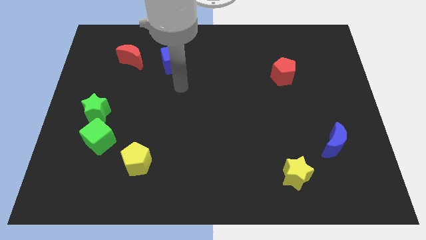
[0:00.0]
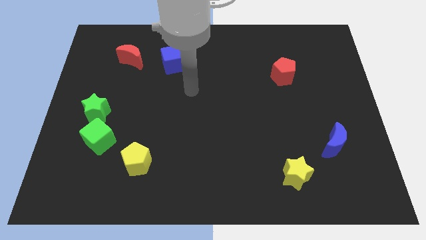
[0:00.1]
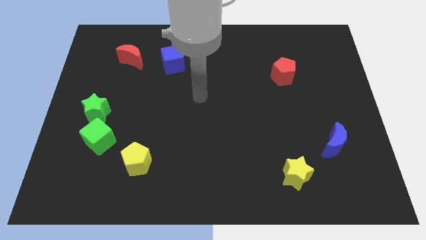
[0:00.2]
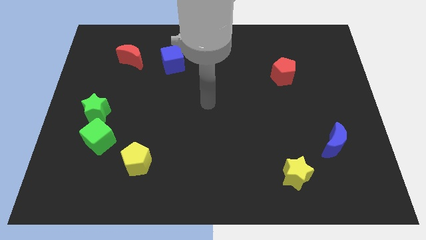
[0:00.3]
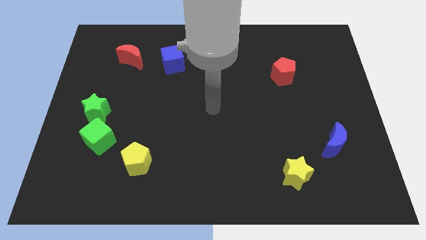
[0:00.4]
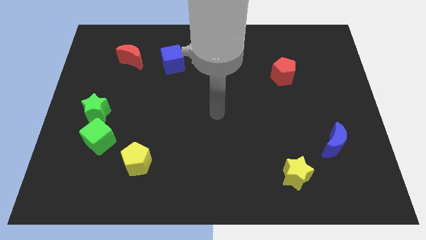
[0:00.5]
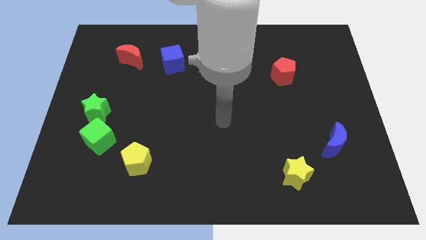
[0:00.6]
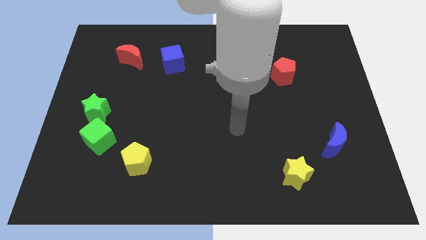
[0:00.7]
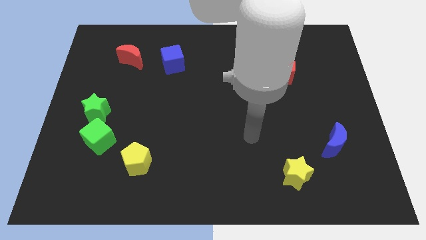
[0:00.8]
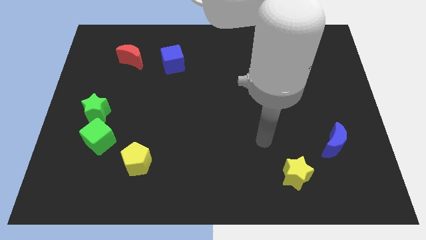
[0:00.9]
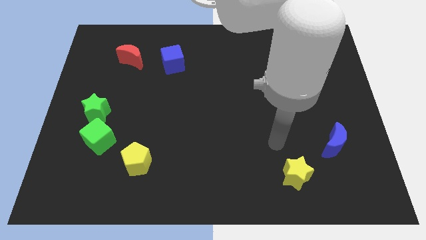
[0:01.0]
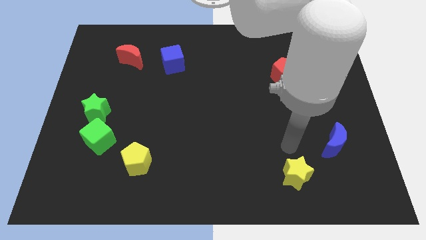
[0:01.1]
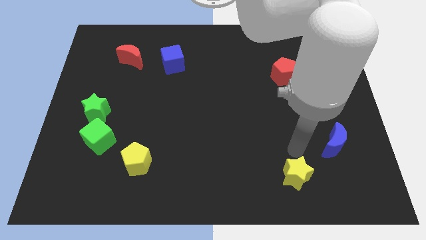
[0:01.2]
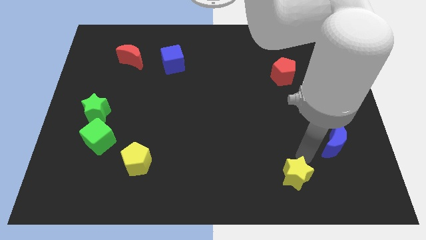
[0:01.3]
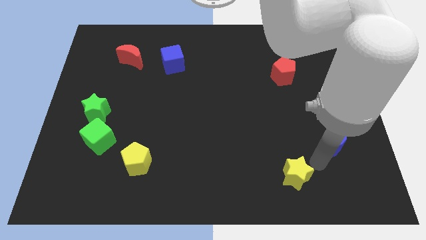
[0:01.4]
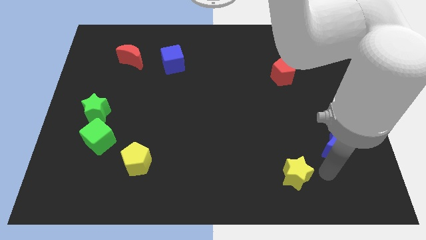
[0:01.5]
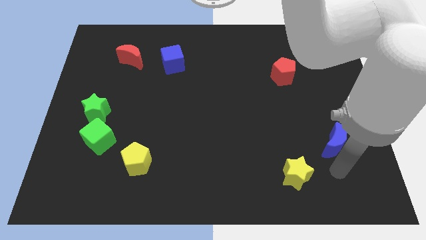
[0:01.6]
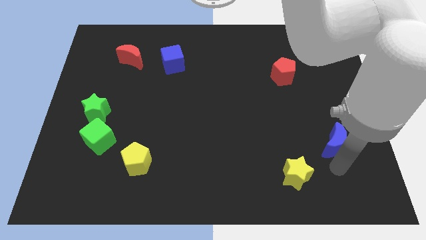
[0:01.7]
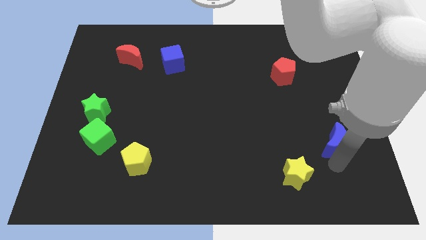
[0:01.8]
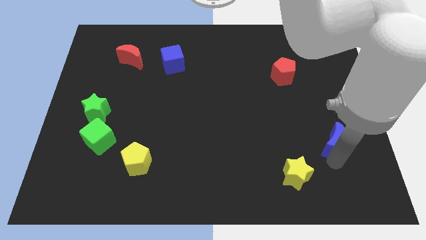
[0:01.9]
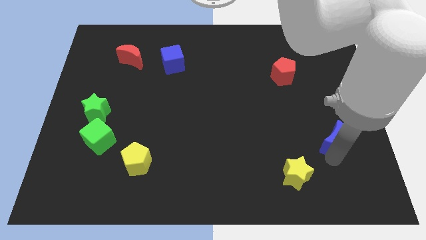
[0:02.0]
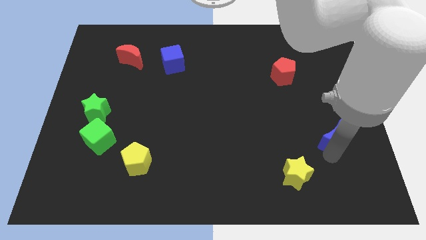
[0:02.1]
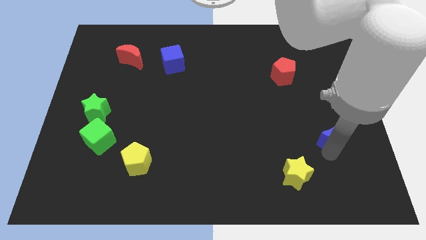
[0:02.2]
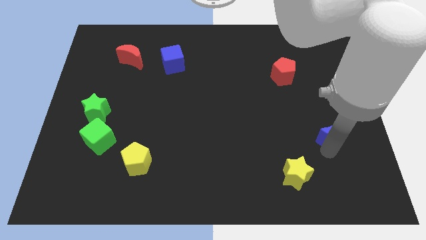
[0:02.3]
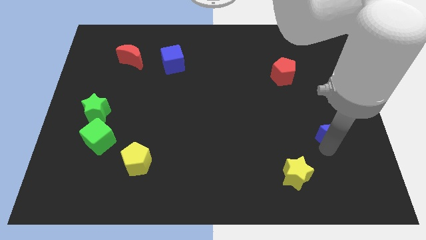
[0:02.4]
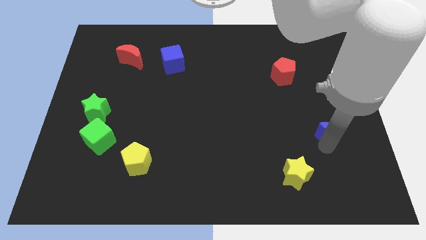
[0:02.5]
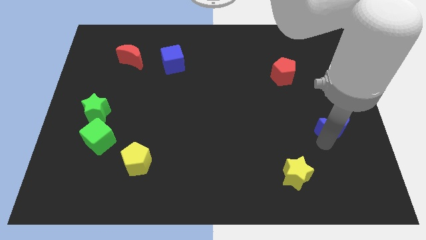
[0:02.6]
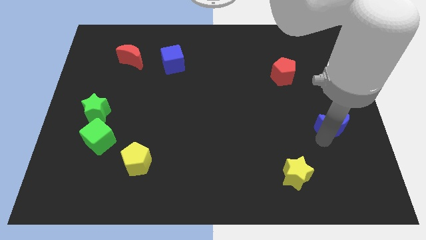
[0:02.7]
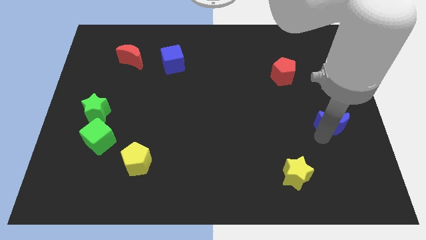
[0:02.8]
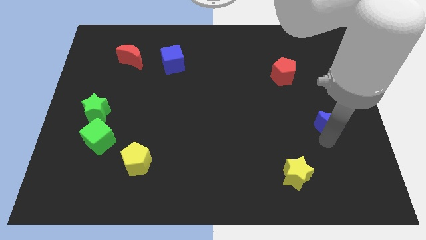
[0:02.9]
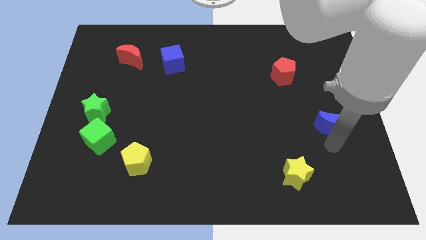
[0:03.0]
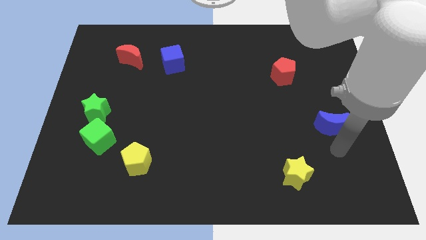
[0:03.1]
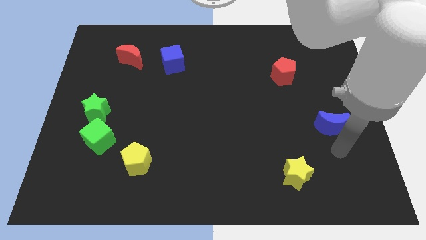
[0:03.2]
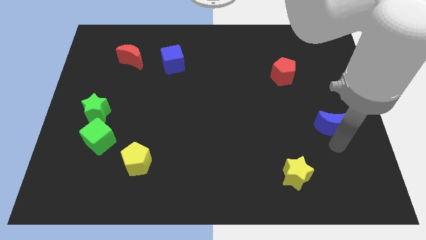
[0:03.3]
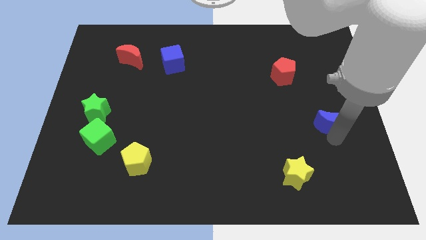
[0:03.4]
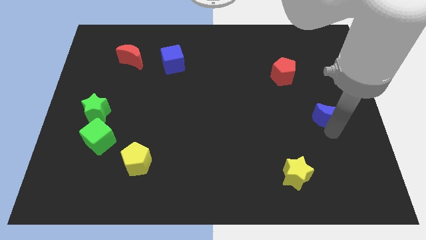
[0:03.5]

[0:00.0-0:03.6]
move the blue moon upwards a bit

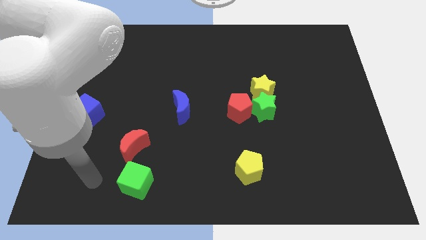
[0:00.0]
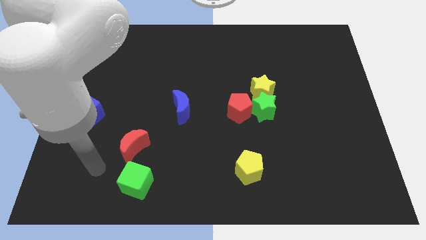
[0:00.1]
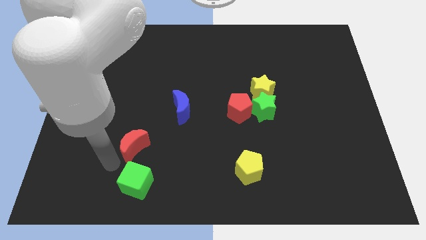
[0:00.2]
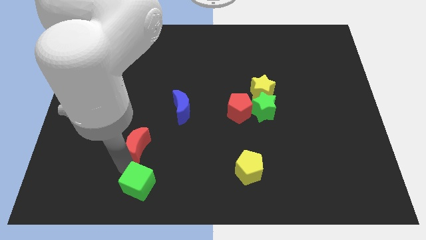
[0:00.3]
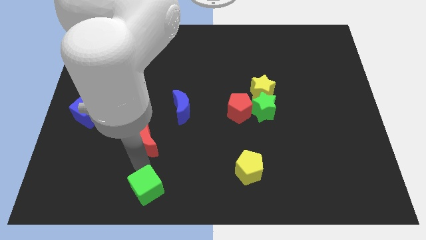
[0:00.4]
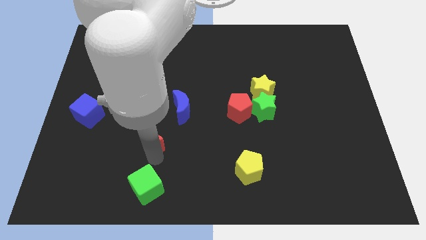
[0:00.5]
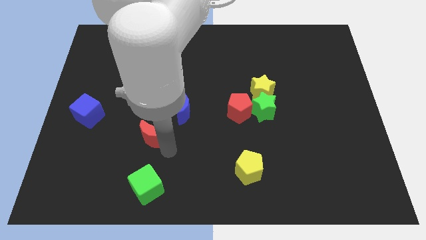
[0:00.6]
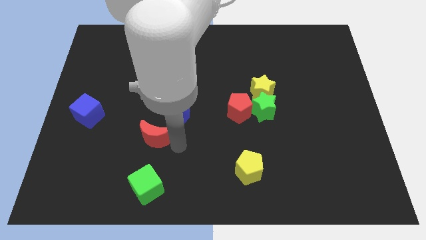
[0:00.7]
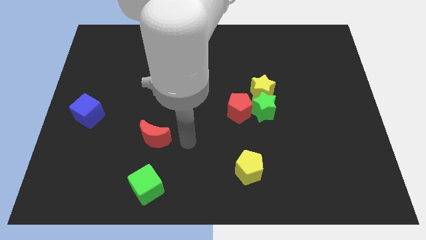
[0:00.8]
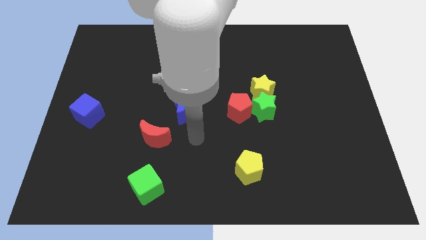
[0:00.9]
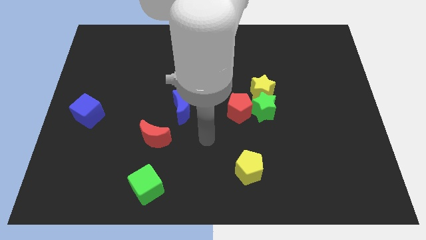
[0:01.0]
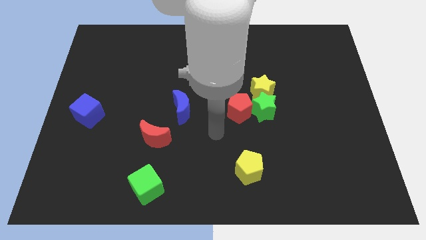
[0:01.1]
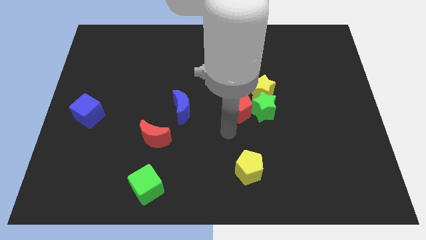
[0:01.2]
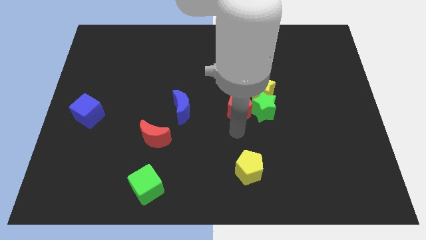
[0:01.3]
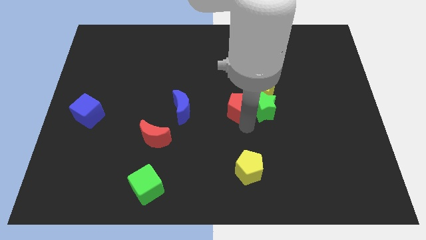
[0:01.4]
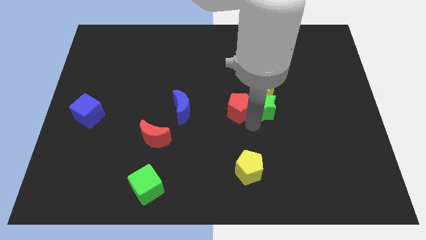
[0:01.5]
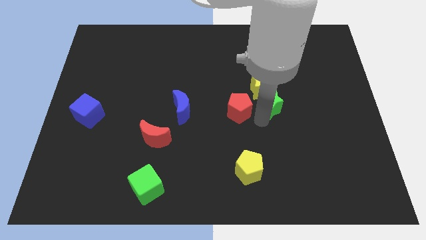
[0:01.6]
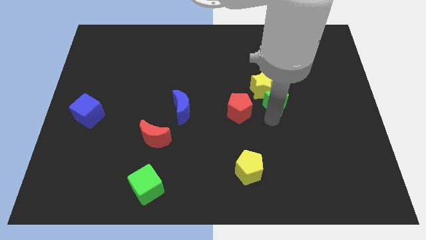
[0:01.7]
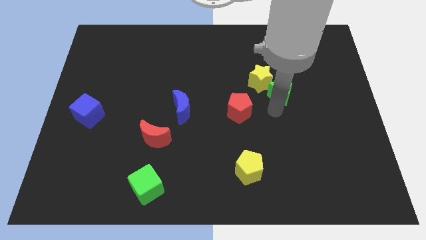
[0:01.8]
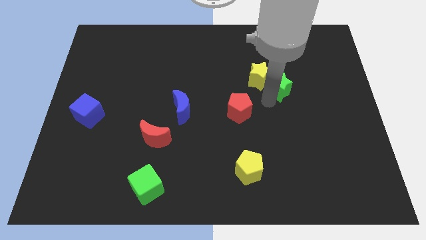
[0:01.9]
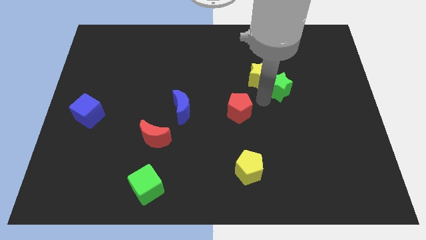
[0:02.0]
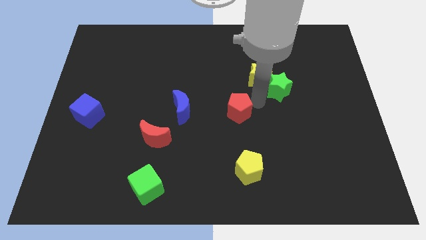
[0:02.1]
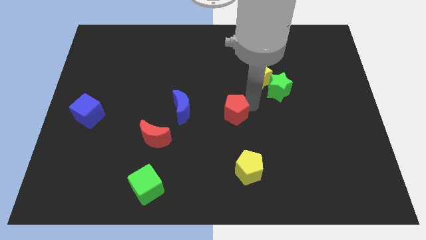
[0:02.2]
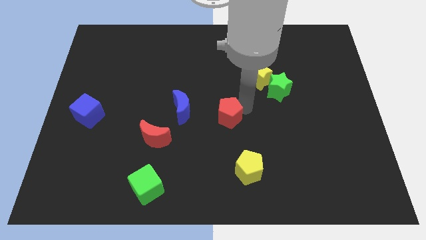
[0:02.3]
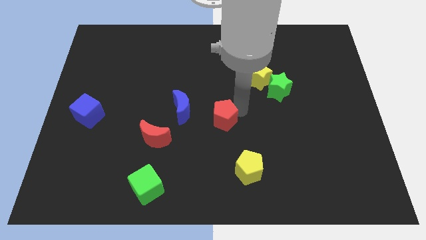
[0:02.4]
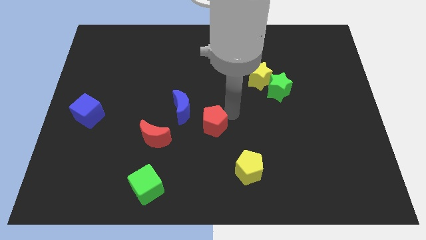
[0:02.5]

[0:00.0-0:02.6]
slide the red pentagon down and then to the left somewhat

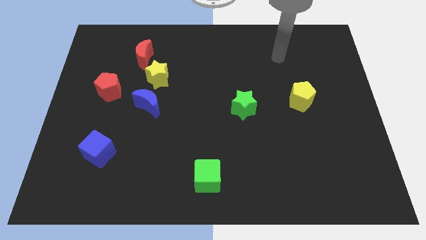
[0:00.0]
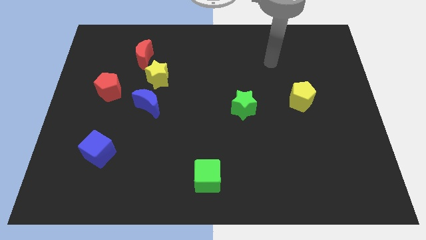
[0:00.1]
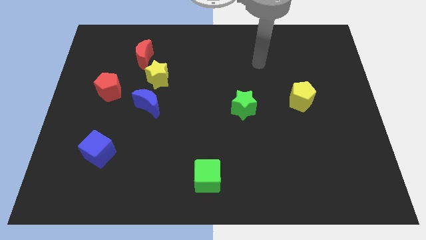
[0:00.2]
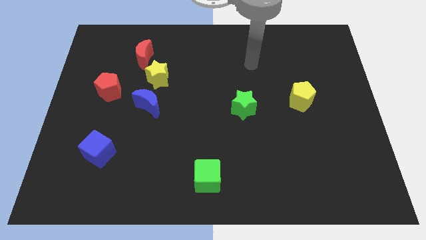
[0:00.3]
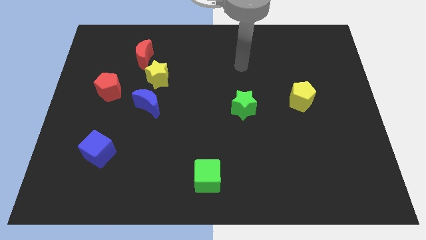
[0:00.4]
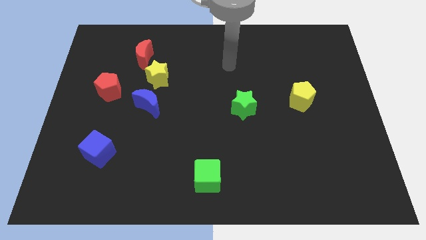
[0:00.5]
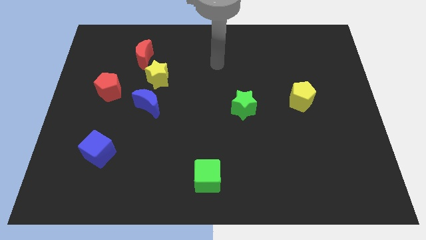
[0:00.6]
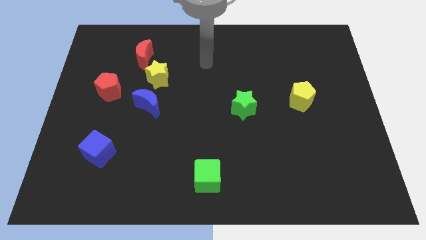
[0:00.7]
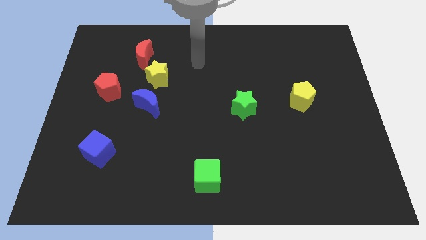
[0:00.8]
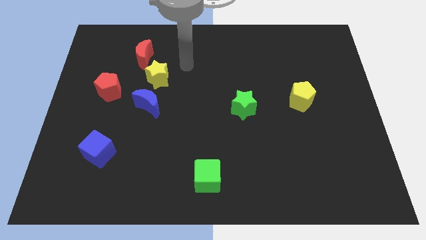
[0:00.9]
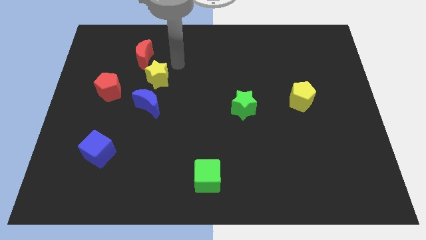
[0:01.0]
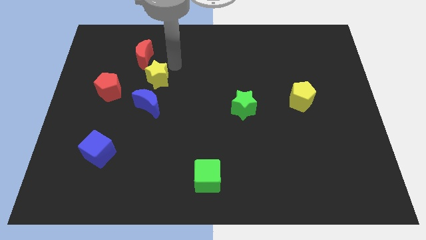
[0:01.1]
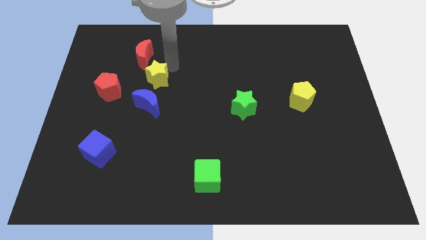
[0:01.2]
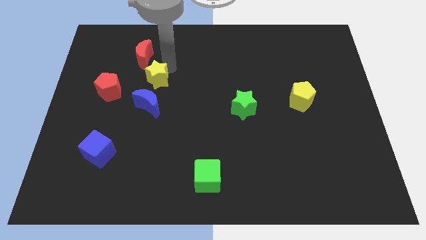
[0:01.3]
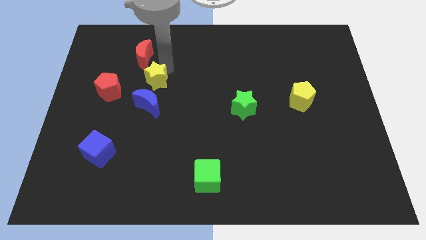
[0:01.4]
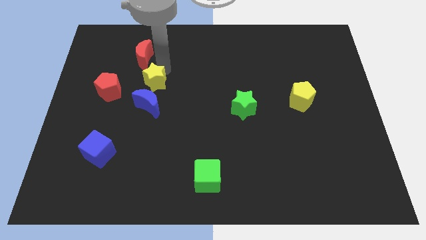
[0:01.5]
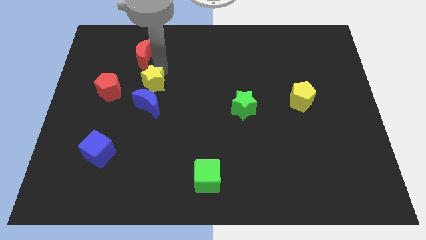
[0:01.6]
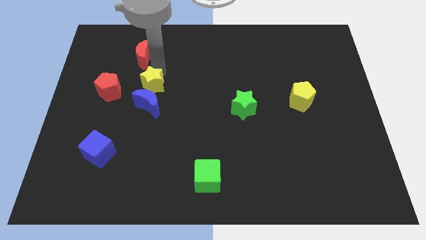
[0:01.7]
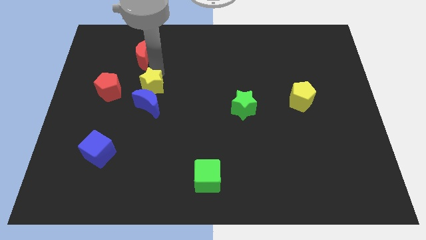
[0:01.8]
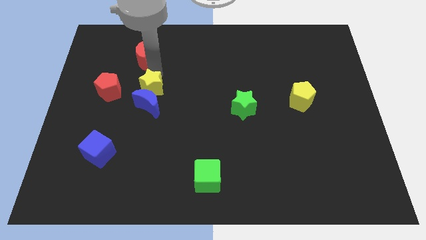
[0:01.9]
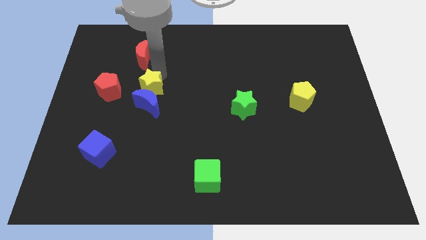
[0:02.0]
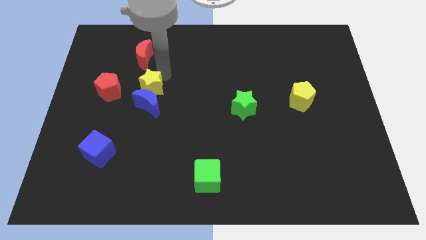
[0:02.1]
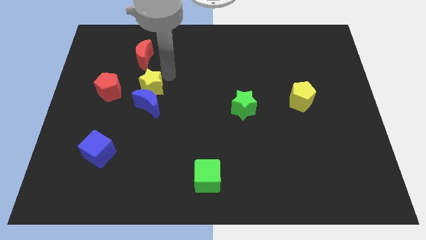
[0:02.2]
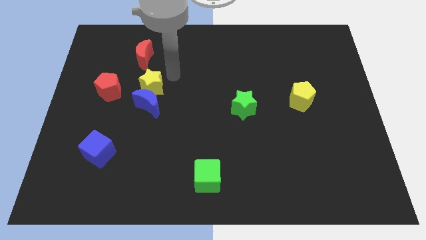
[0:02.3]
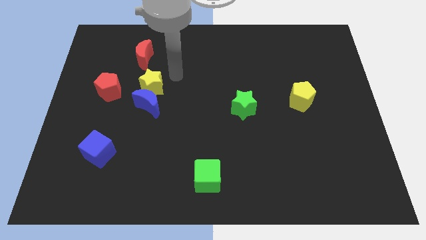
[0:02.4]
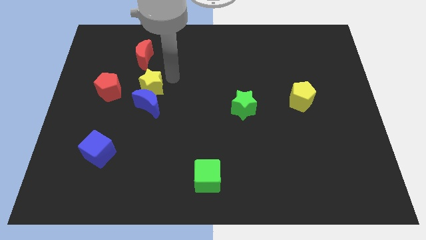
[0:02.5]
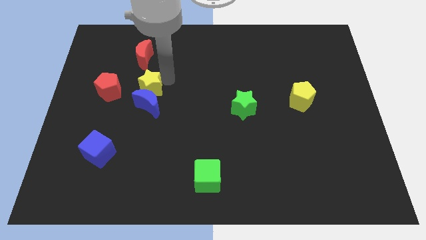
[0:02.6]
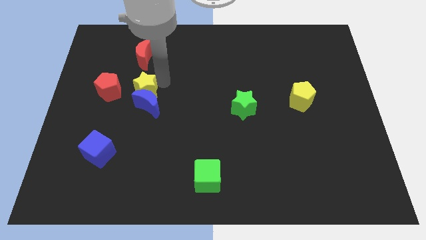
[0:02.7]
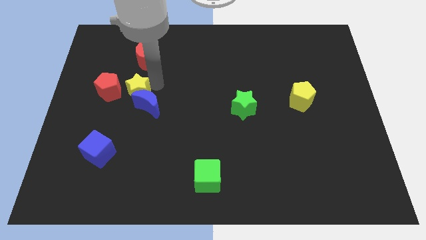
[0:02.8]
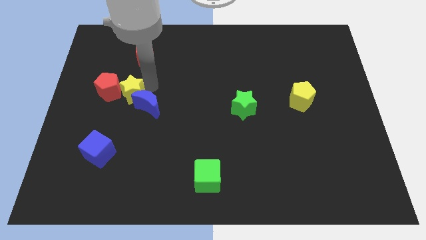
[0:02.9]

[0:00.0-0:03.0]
move the yellow star diagonally downwards and to the left slightly
